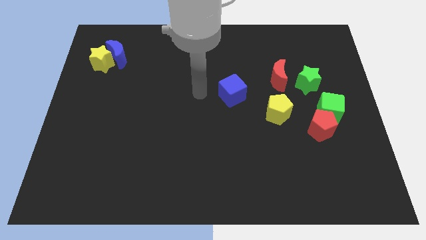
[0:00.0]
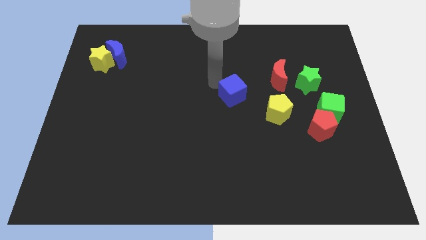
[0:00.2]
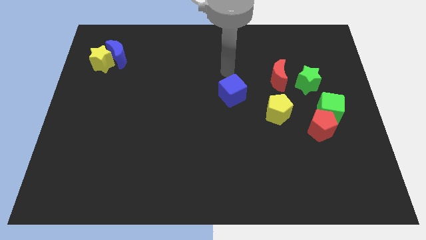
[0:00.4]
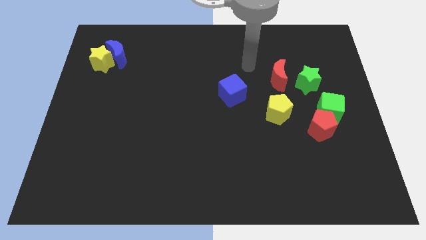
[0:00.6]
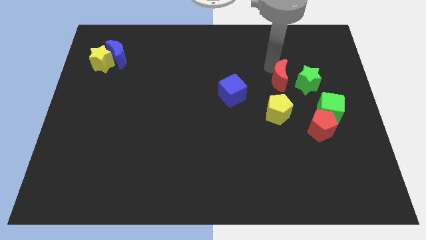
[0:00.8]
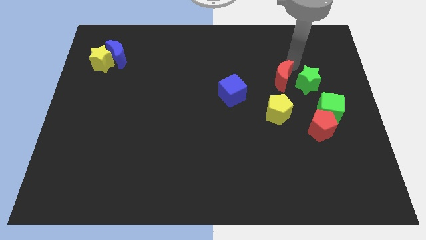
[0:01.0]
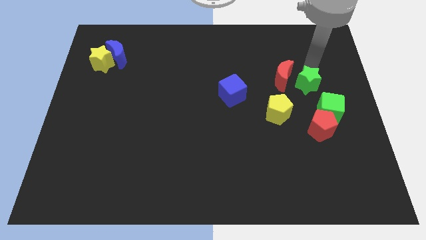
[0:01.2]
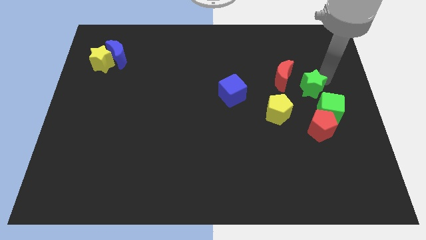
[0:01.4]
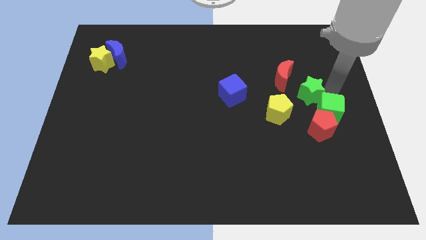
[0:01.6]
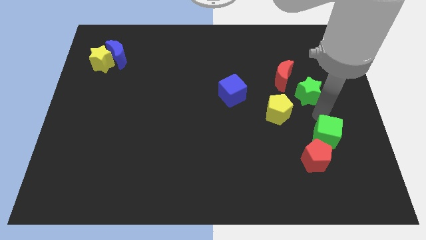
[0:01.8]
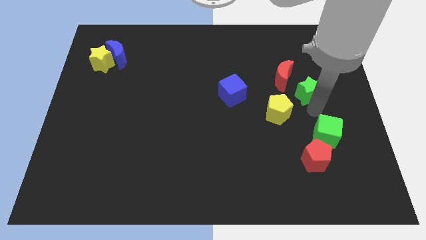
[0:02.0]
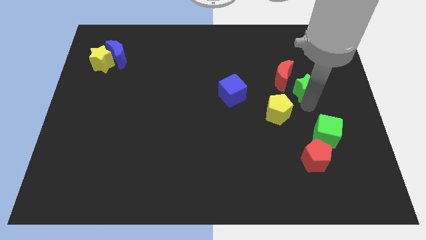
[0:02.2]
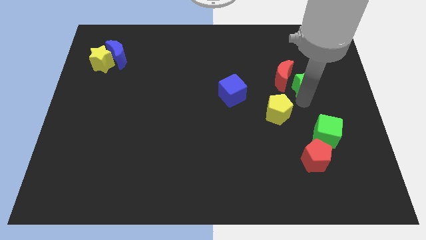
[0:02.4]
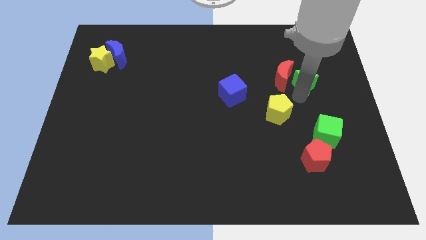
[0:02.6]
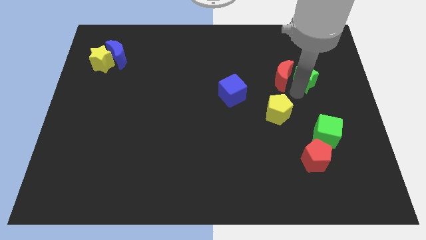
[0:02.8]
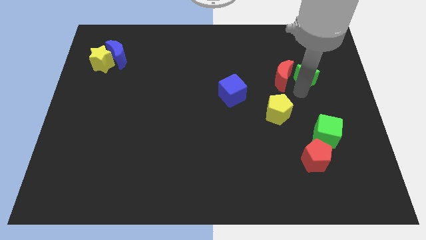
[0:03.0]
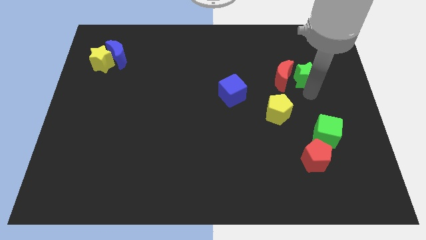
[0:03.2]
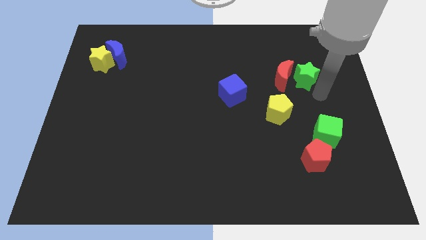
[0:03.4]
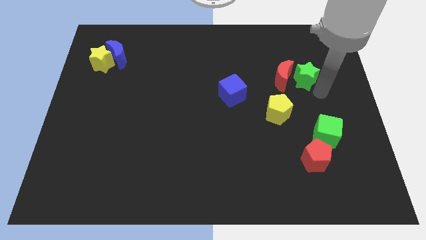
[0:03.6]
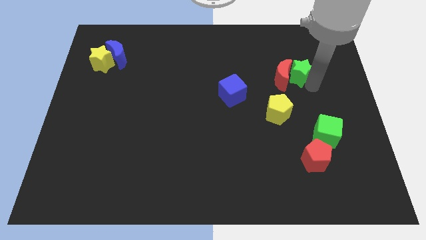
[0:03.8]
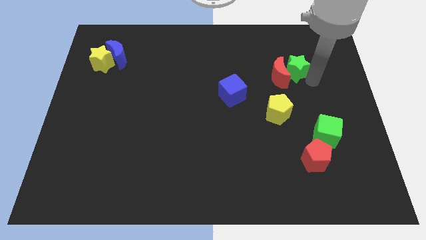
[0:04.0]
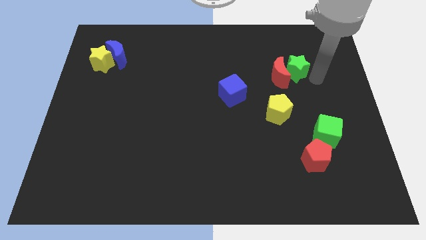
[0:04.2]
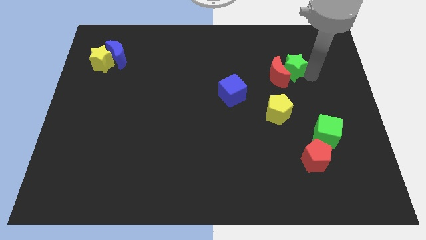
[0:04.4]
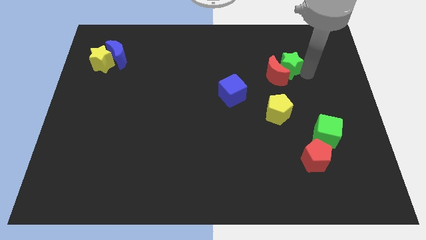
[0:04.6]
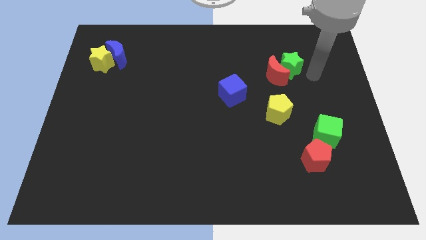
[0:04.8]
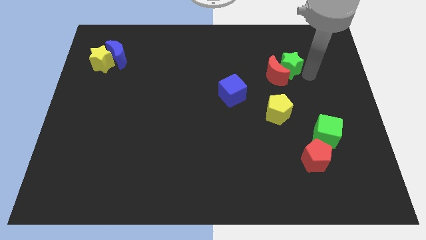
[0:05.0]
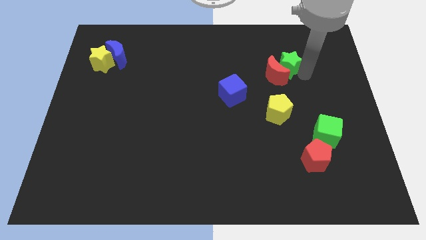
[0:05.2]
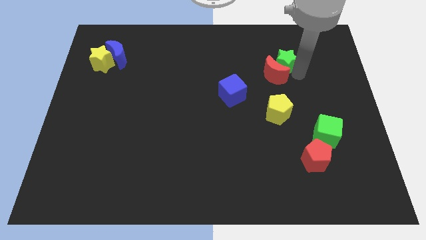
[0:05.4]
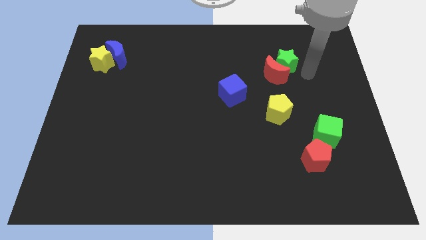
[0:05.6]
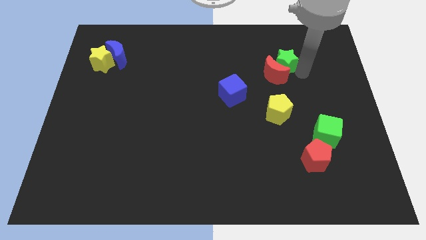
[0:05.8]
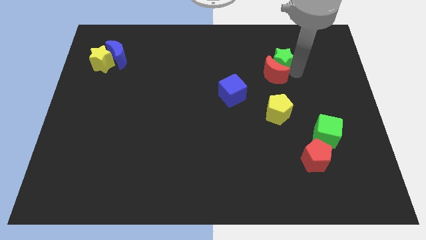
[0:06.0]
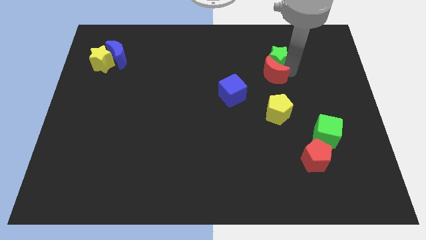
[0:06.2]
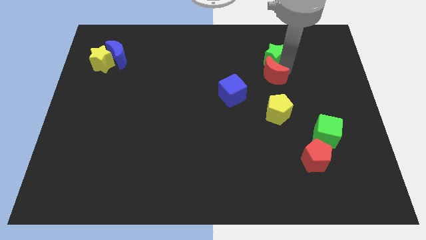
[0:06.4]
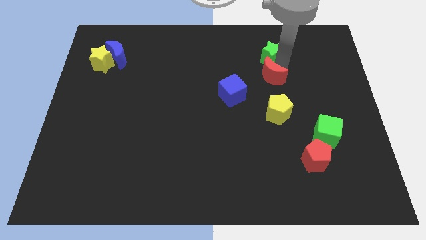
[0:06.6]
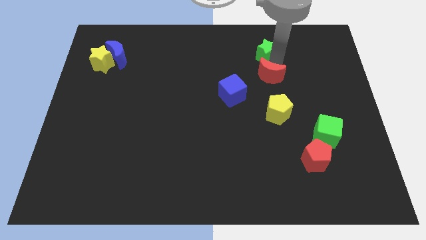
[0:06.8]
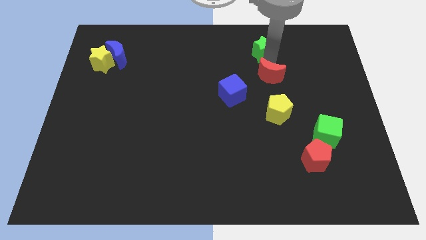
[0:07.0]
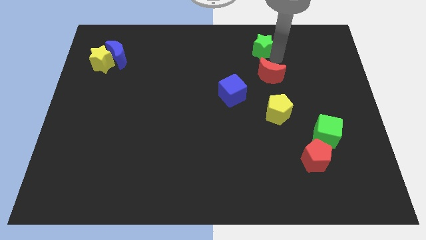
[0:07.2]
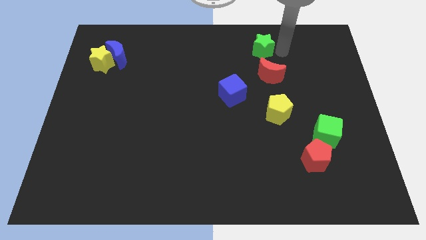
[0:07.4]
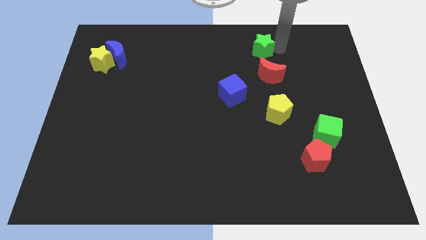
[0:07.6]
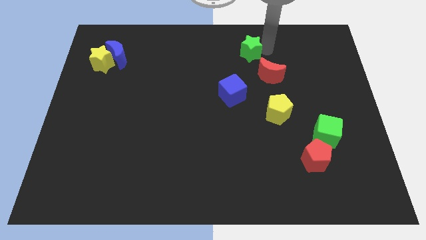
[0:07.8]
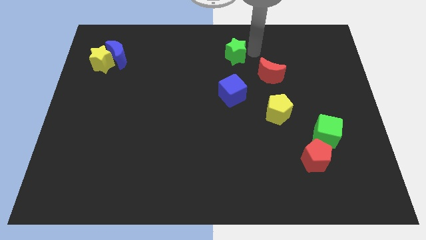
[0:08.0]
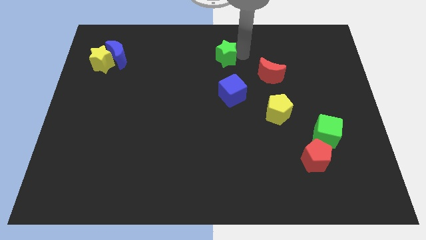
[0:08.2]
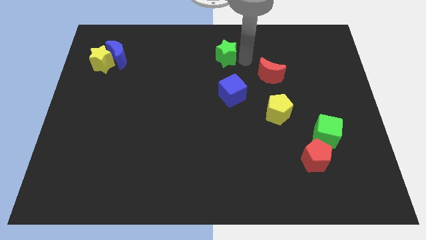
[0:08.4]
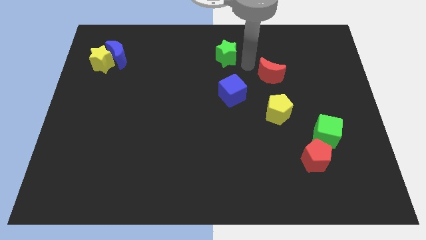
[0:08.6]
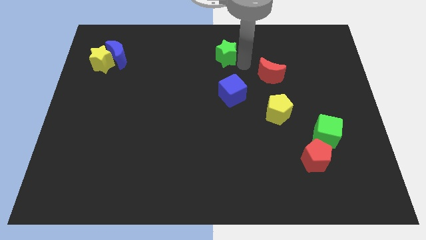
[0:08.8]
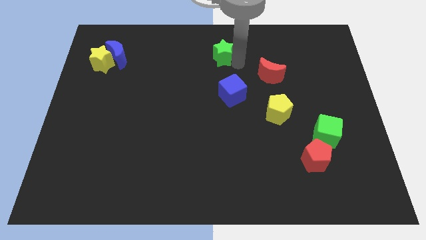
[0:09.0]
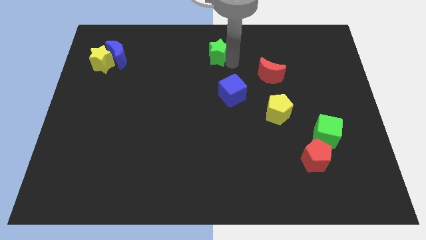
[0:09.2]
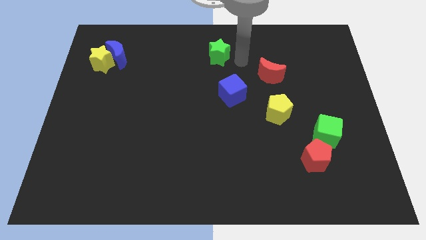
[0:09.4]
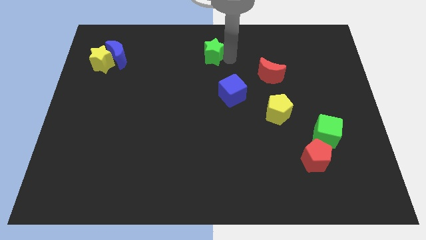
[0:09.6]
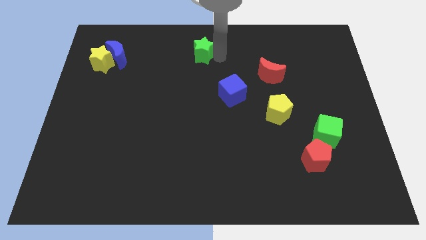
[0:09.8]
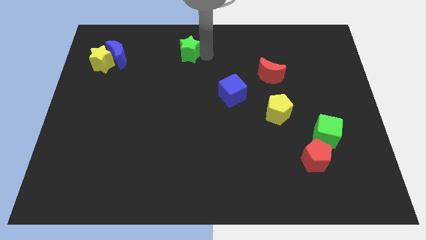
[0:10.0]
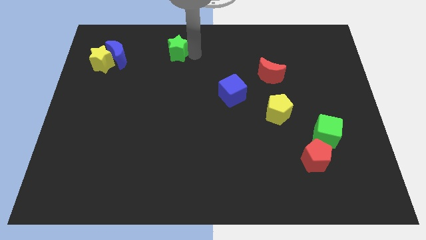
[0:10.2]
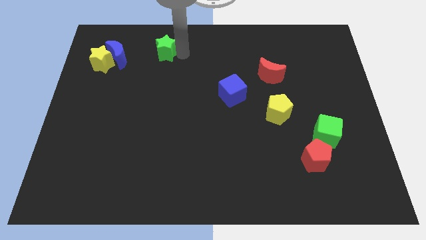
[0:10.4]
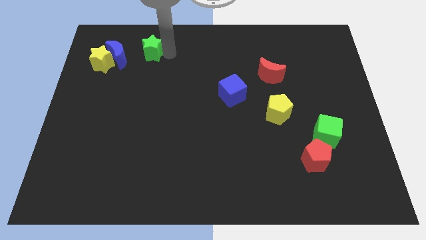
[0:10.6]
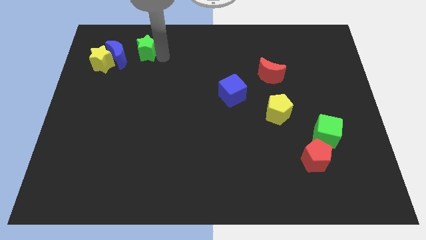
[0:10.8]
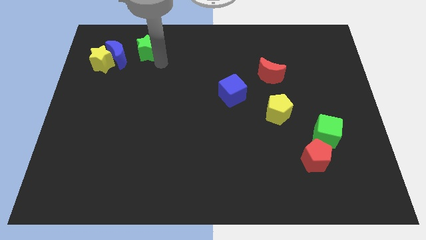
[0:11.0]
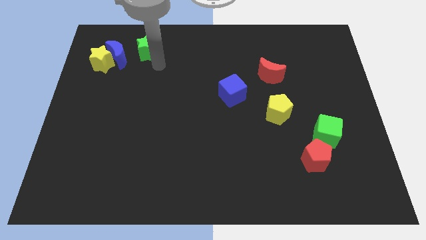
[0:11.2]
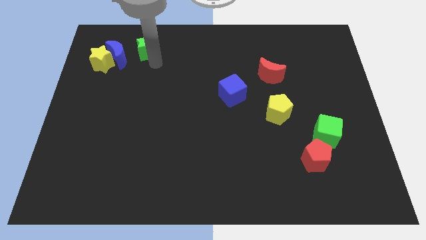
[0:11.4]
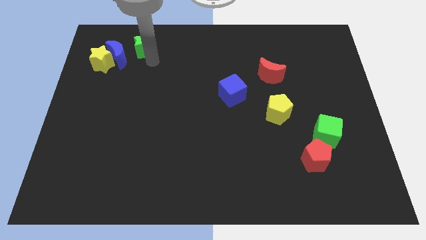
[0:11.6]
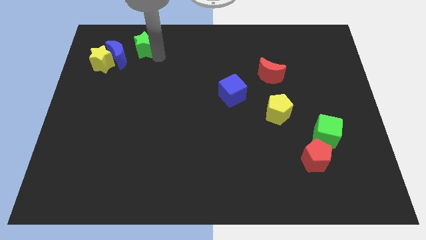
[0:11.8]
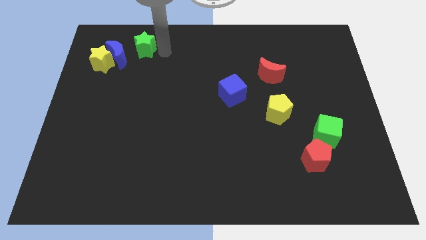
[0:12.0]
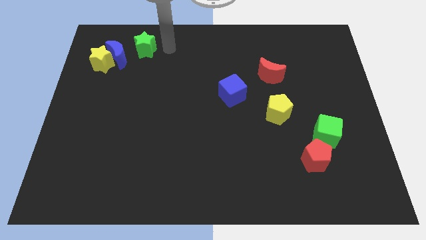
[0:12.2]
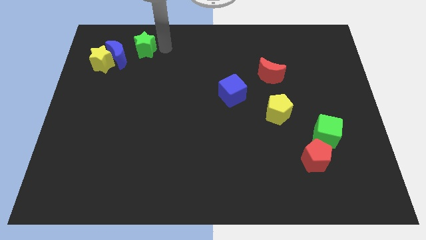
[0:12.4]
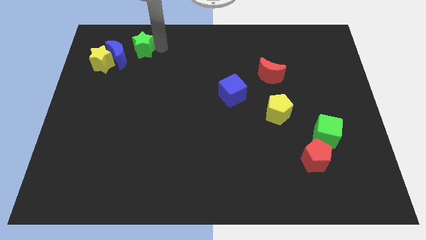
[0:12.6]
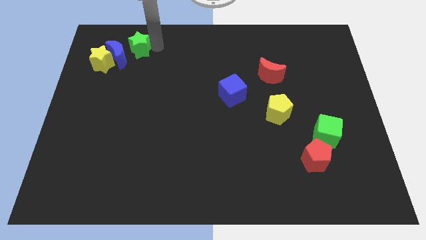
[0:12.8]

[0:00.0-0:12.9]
slide the green star to the blue moon

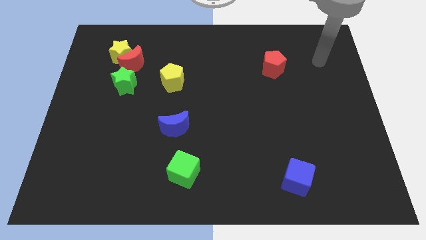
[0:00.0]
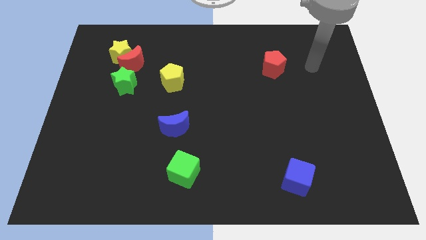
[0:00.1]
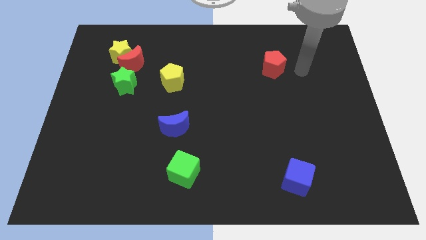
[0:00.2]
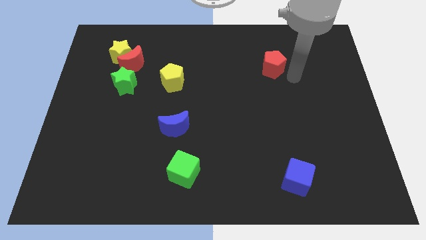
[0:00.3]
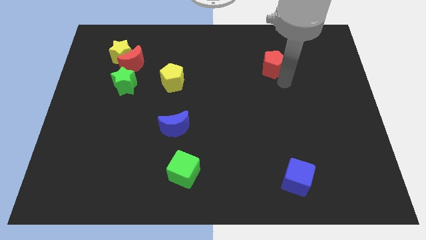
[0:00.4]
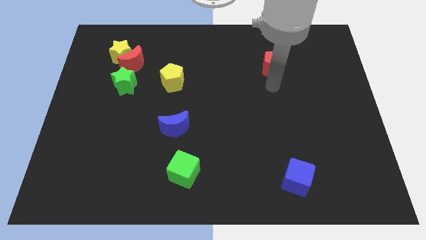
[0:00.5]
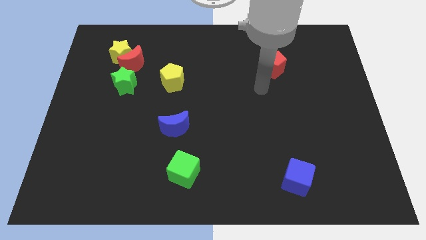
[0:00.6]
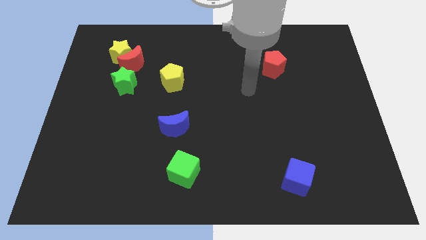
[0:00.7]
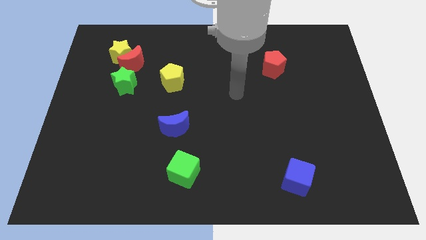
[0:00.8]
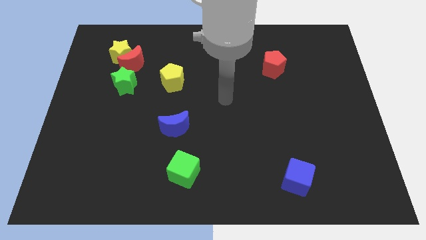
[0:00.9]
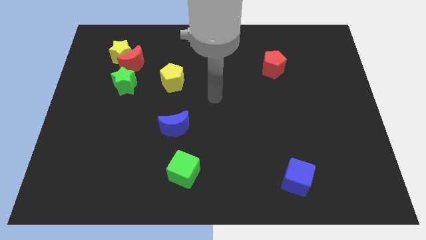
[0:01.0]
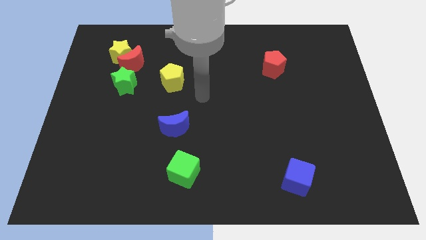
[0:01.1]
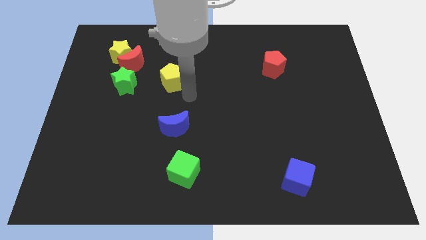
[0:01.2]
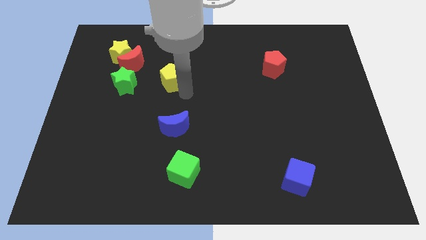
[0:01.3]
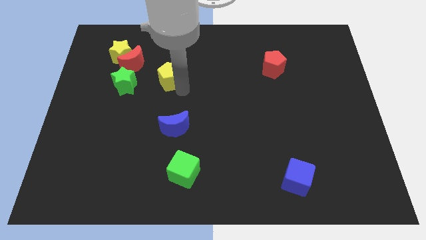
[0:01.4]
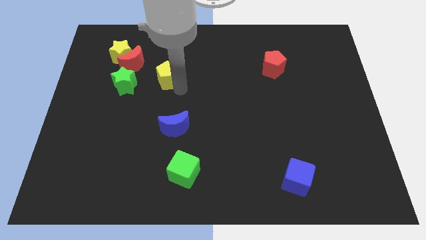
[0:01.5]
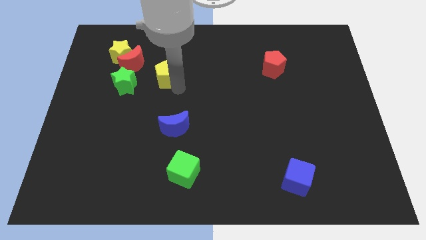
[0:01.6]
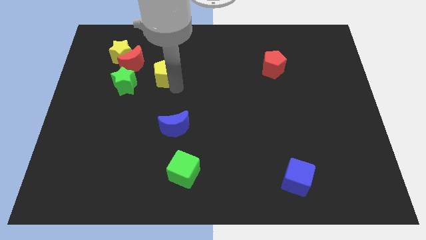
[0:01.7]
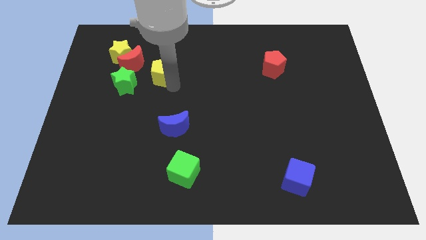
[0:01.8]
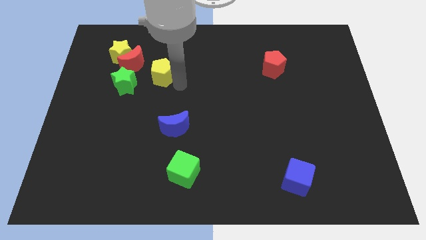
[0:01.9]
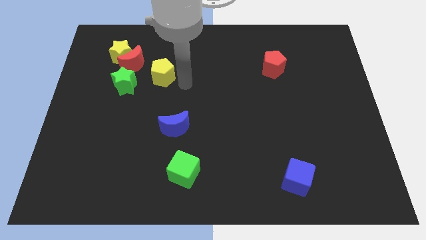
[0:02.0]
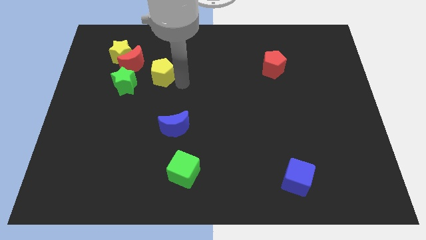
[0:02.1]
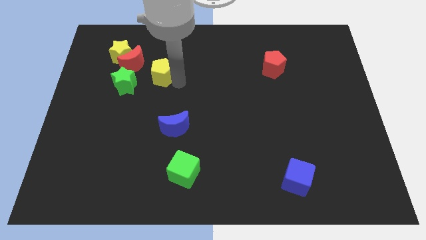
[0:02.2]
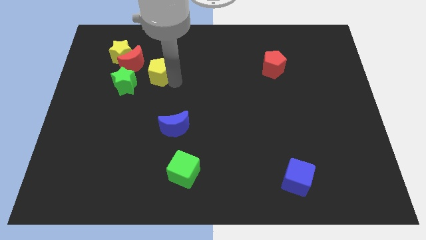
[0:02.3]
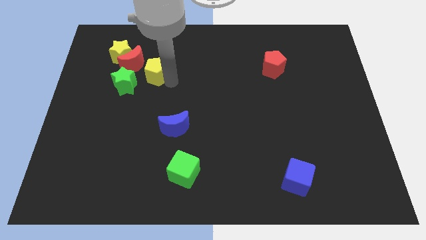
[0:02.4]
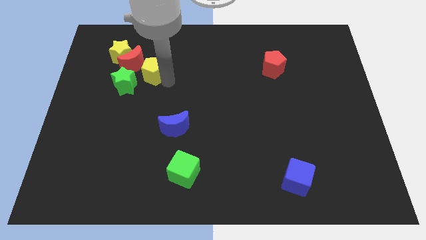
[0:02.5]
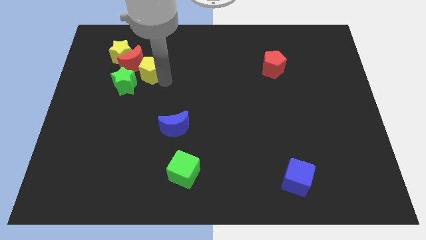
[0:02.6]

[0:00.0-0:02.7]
push the yellow pentagon next to the red moon
